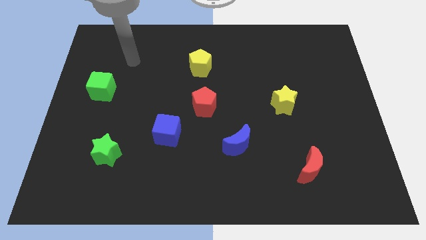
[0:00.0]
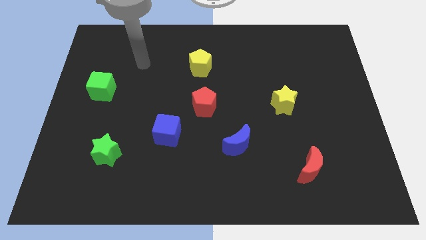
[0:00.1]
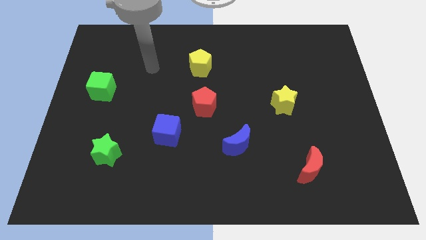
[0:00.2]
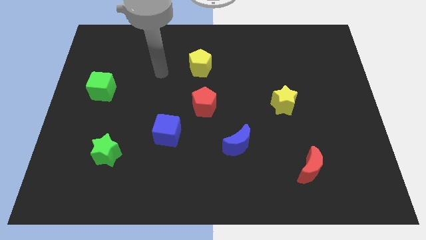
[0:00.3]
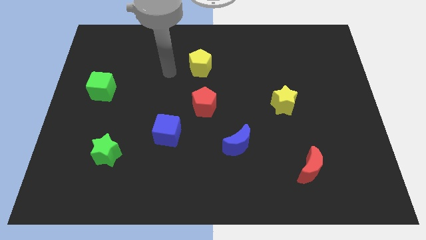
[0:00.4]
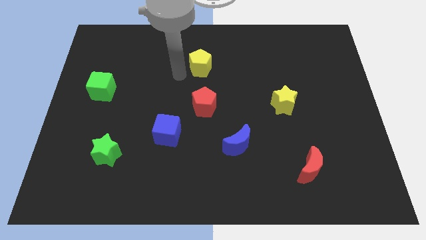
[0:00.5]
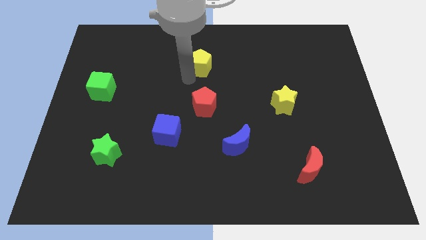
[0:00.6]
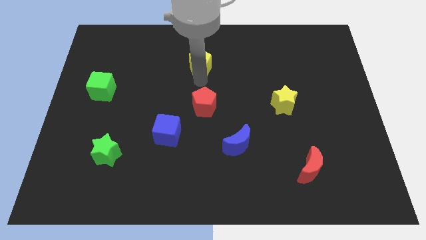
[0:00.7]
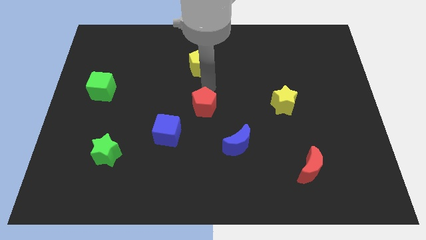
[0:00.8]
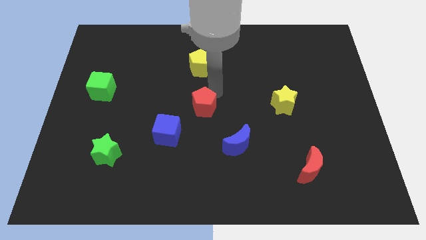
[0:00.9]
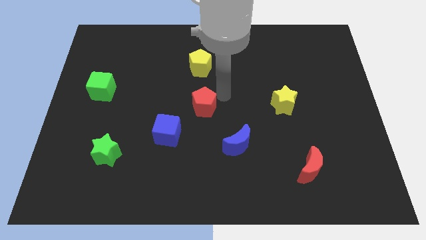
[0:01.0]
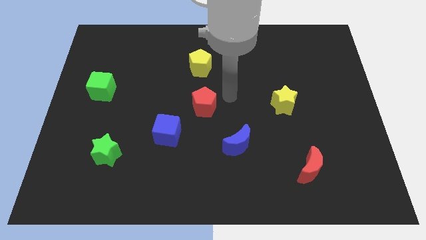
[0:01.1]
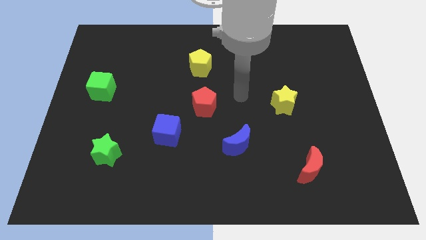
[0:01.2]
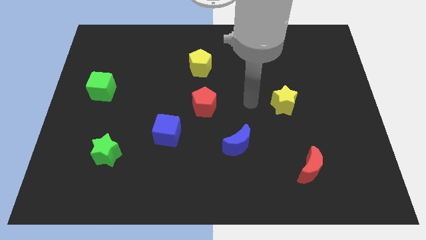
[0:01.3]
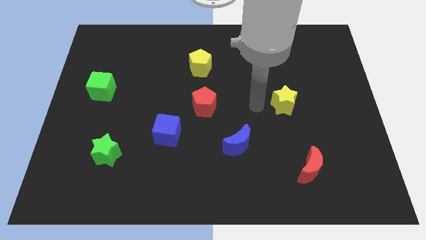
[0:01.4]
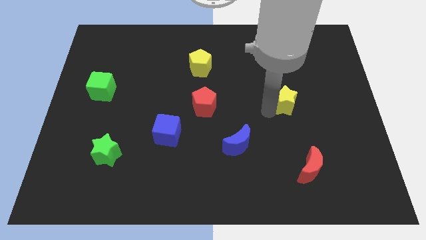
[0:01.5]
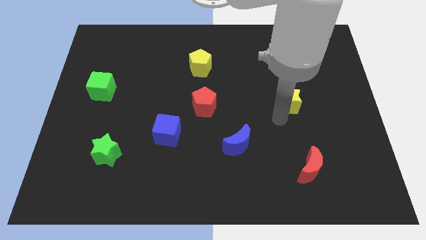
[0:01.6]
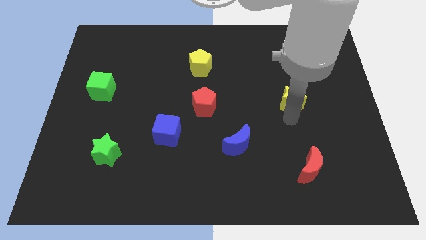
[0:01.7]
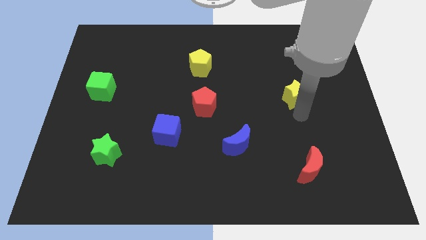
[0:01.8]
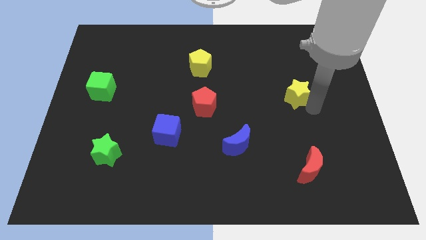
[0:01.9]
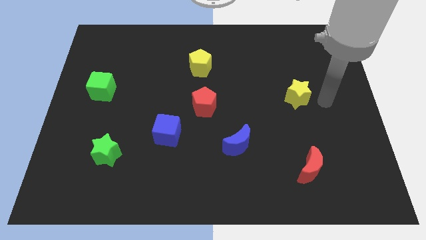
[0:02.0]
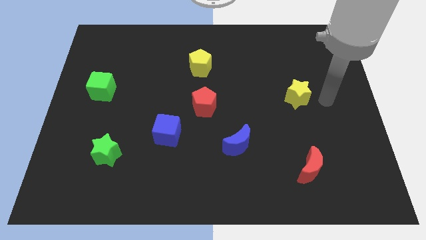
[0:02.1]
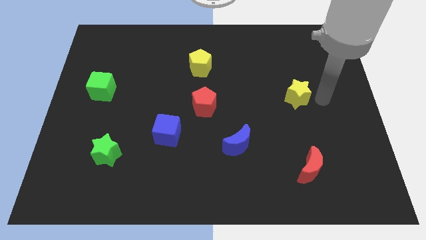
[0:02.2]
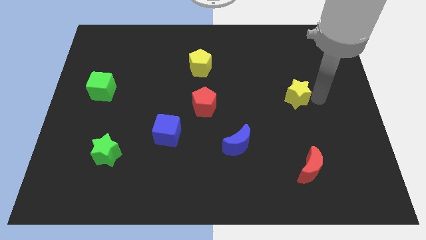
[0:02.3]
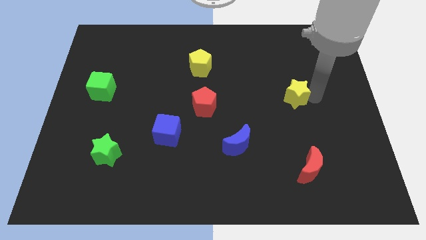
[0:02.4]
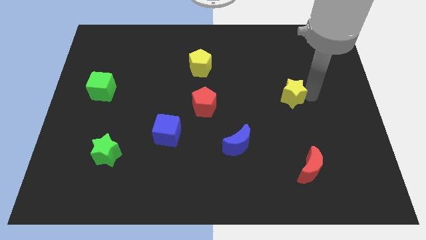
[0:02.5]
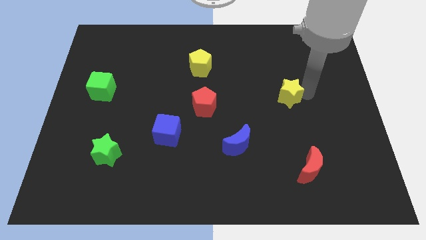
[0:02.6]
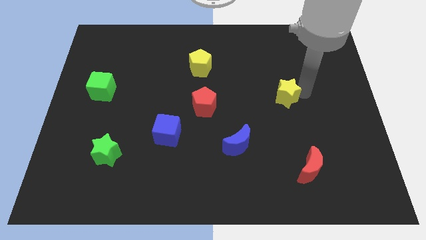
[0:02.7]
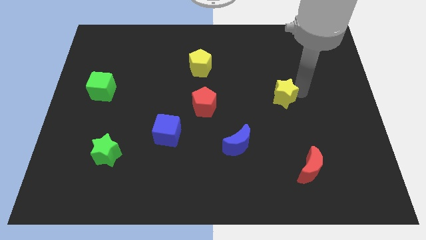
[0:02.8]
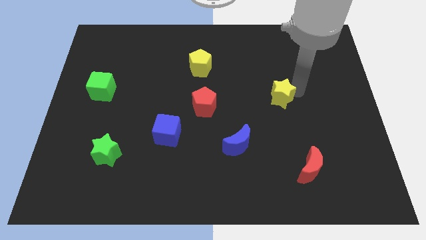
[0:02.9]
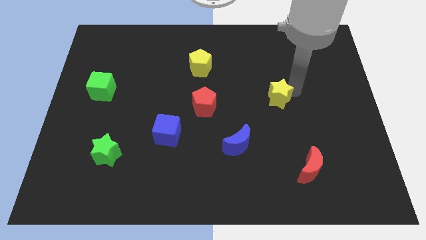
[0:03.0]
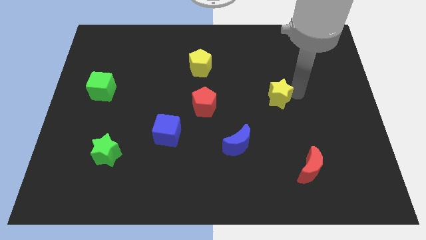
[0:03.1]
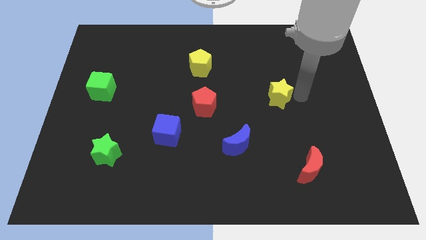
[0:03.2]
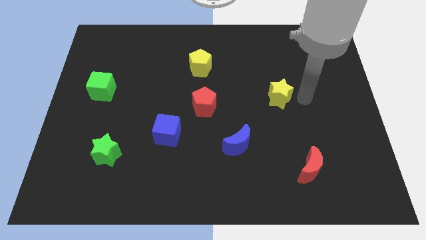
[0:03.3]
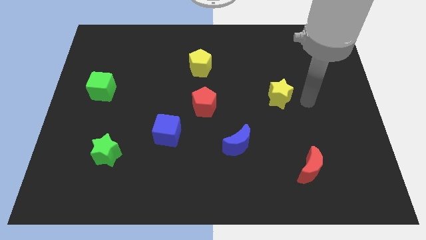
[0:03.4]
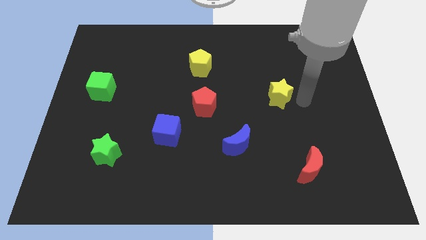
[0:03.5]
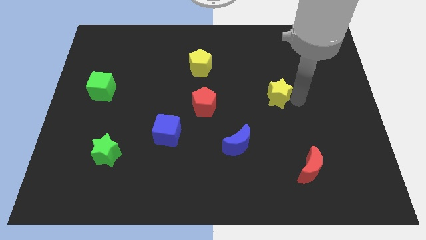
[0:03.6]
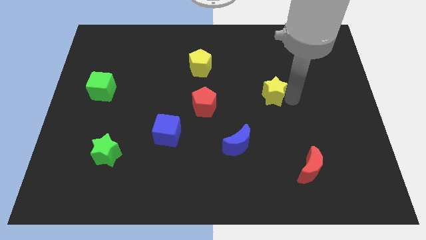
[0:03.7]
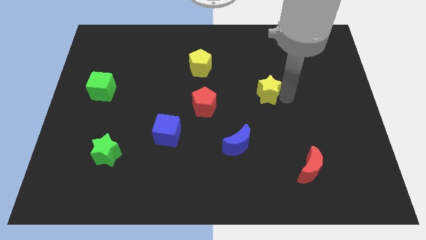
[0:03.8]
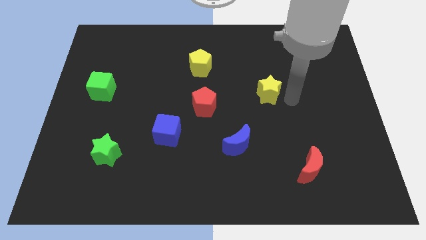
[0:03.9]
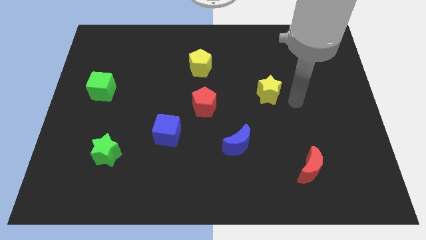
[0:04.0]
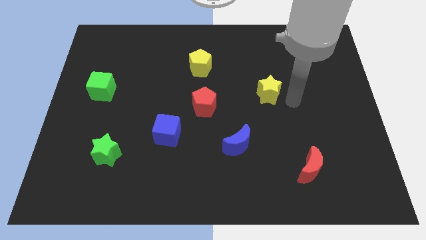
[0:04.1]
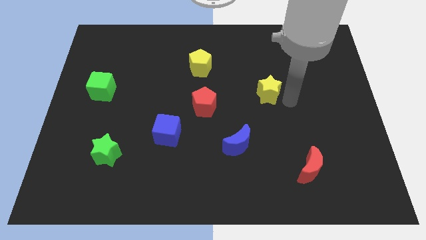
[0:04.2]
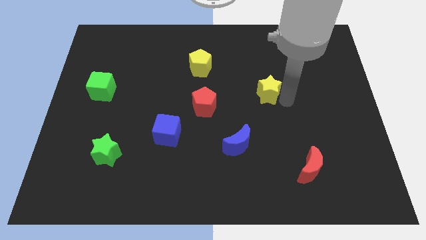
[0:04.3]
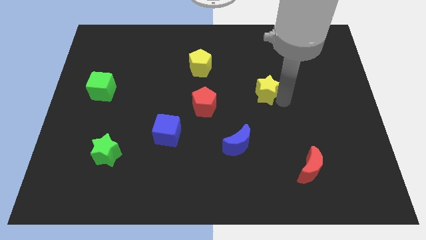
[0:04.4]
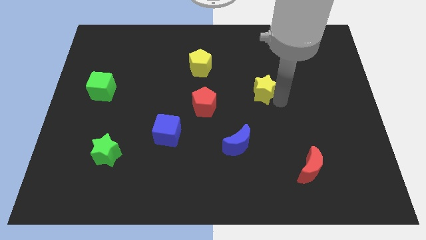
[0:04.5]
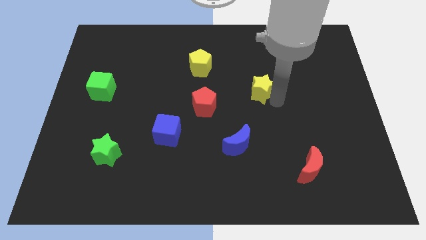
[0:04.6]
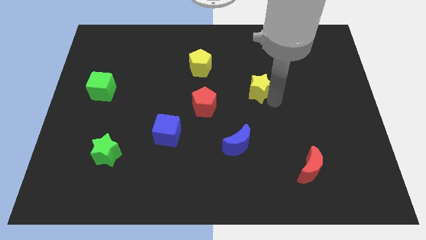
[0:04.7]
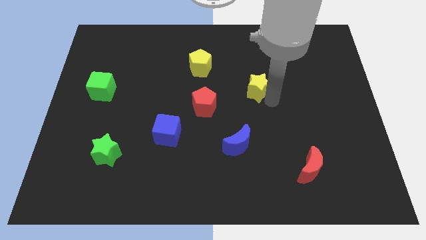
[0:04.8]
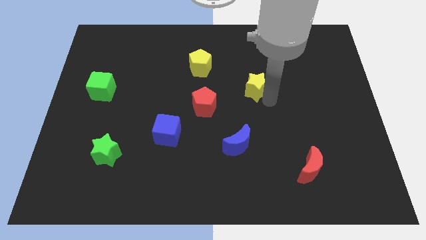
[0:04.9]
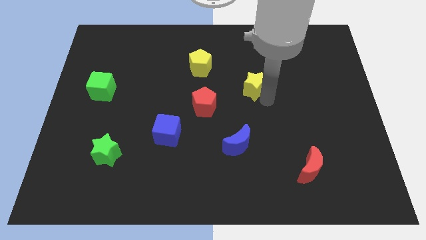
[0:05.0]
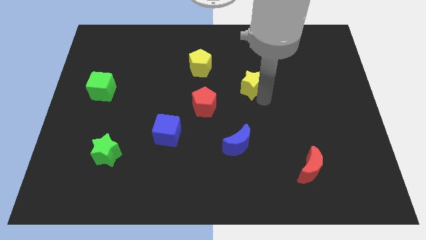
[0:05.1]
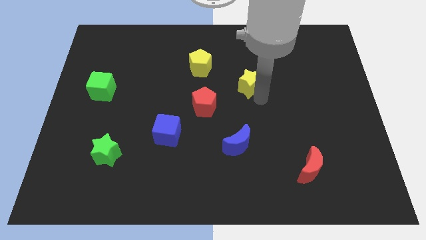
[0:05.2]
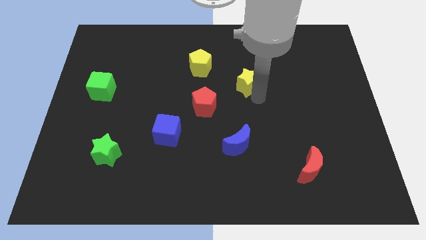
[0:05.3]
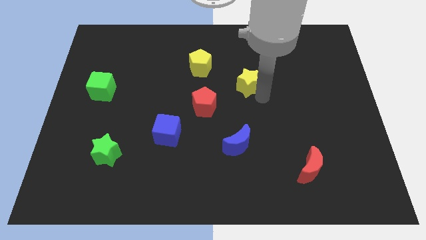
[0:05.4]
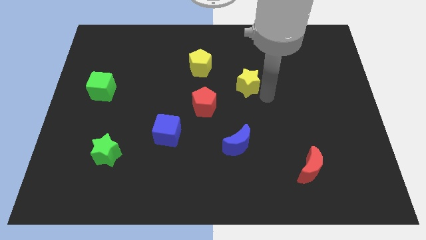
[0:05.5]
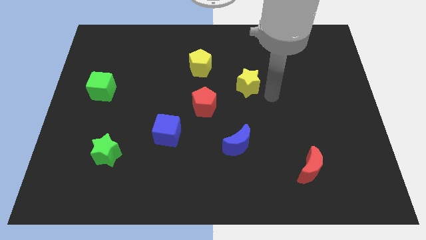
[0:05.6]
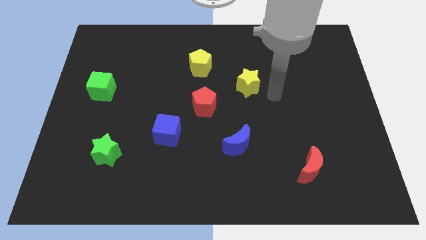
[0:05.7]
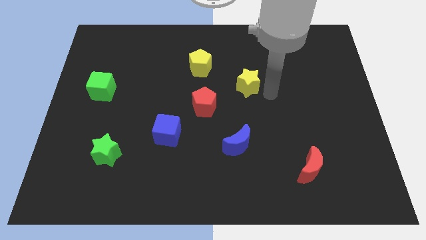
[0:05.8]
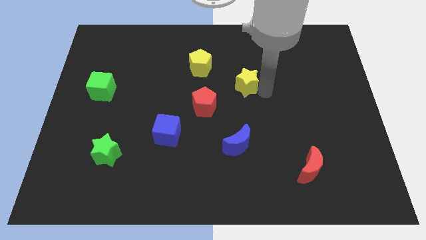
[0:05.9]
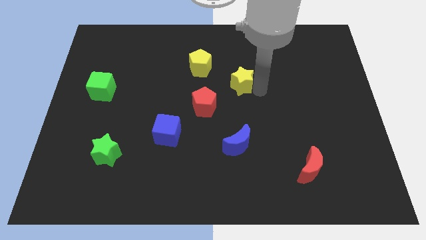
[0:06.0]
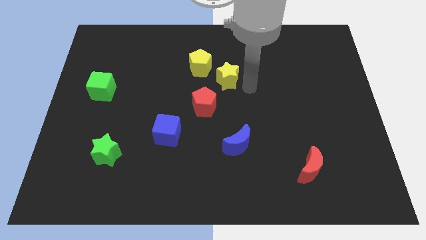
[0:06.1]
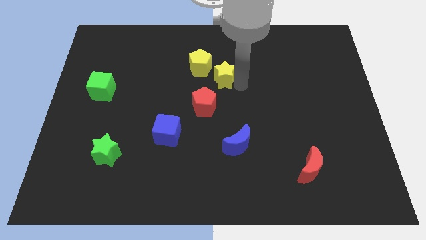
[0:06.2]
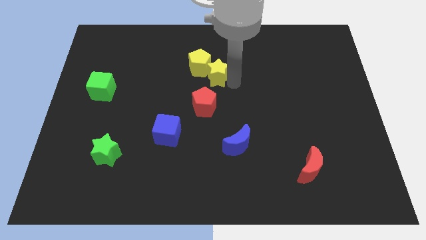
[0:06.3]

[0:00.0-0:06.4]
move the yellow star towards the yellow pentagon
